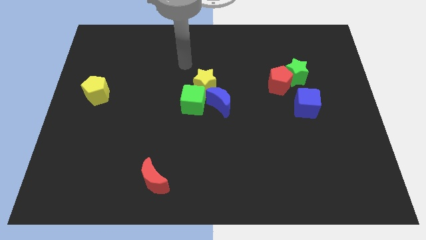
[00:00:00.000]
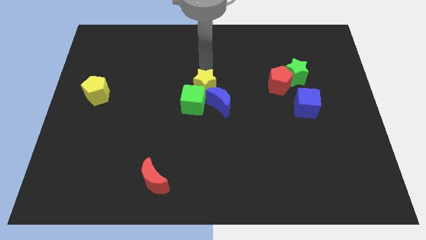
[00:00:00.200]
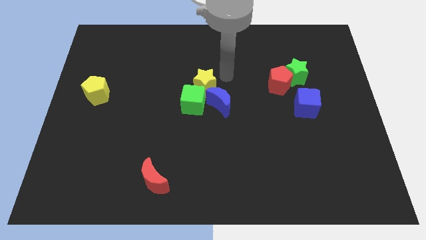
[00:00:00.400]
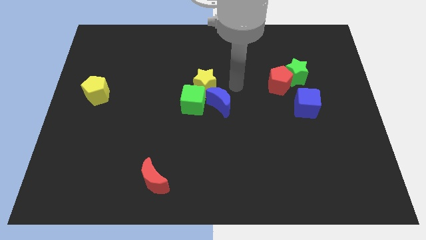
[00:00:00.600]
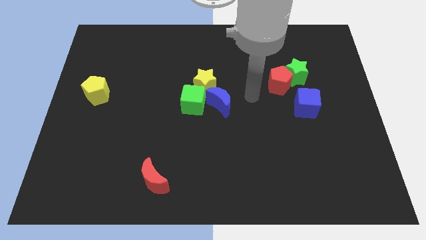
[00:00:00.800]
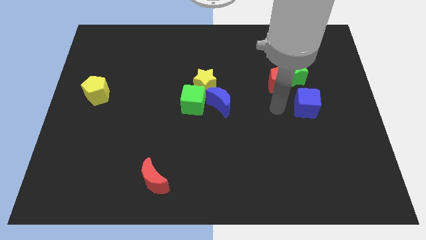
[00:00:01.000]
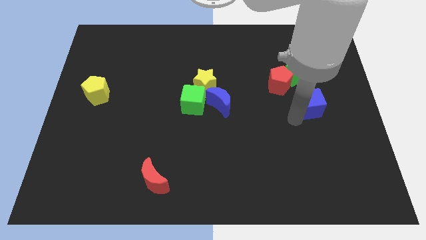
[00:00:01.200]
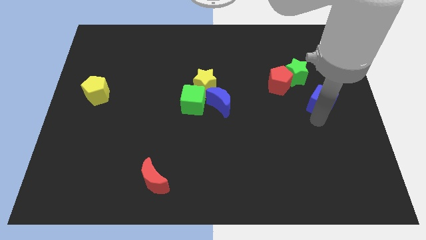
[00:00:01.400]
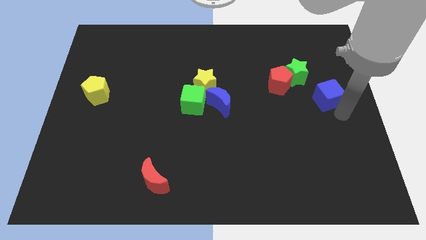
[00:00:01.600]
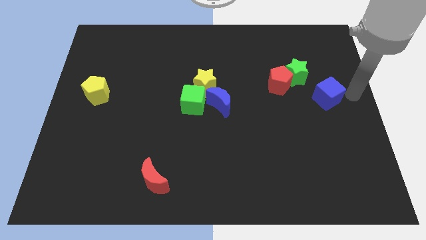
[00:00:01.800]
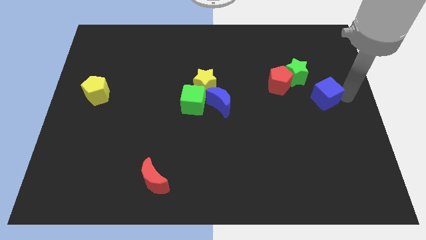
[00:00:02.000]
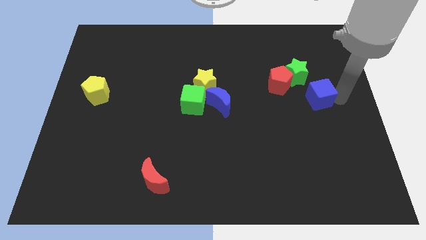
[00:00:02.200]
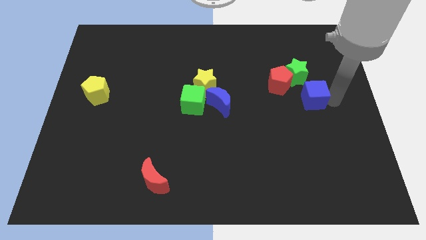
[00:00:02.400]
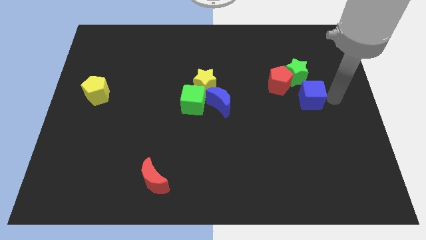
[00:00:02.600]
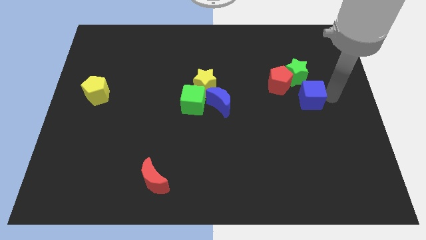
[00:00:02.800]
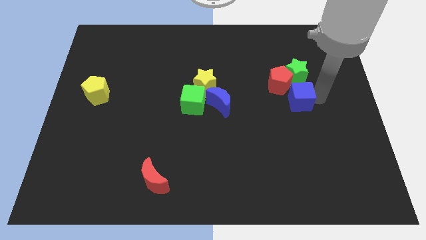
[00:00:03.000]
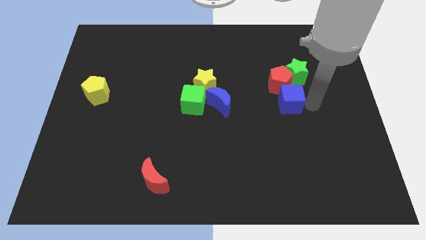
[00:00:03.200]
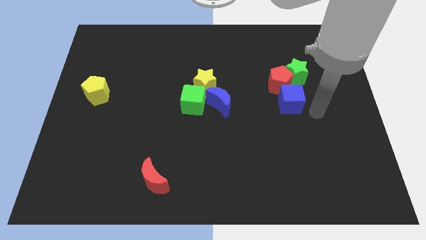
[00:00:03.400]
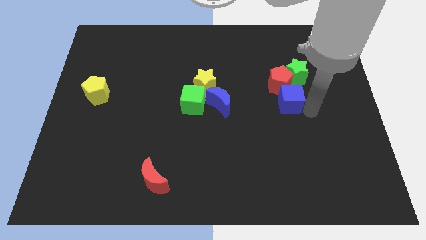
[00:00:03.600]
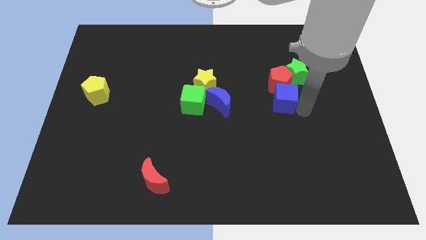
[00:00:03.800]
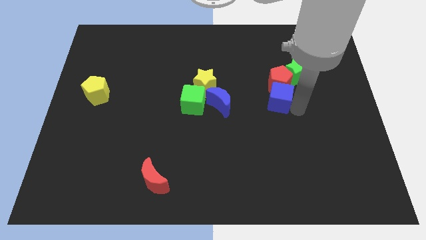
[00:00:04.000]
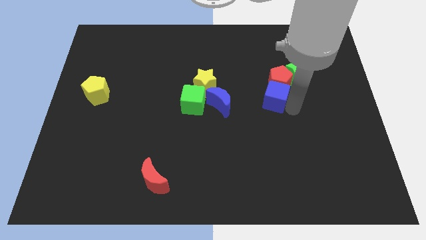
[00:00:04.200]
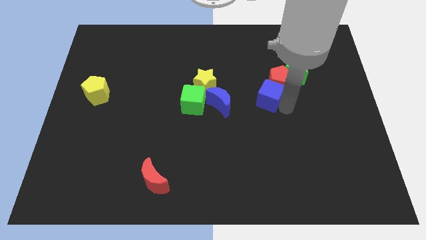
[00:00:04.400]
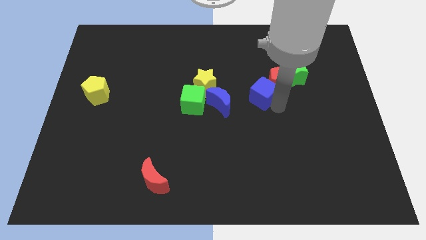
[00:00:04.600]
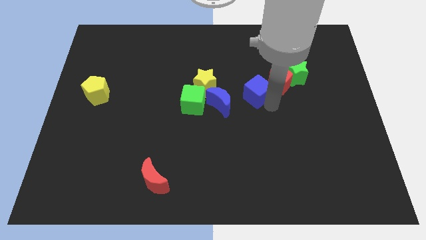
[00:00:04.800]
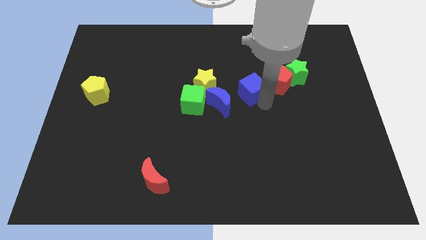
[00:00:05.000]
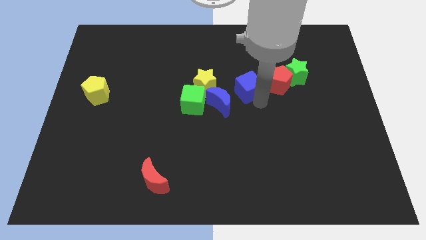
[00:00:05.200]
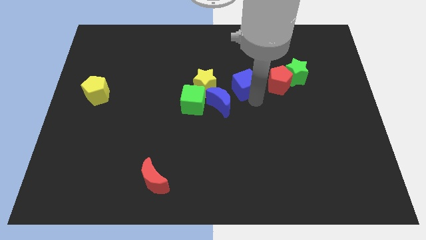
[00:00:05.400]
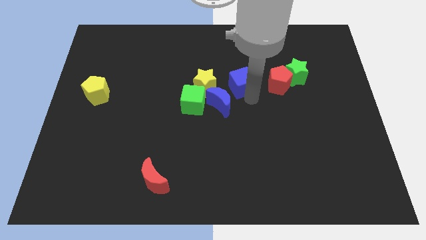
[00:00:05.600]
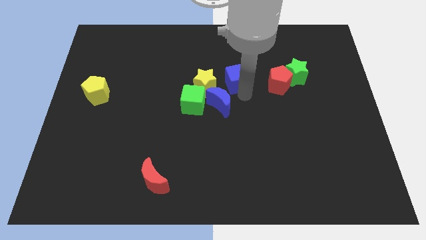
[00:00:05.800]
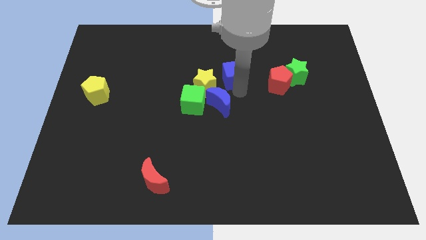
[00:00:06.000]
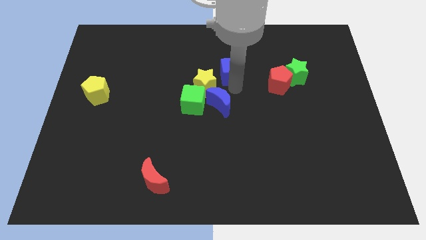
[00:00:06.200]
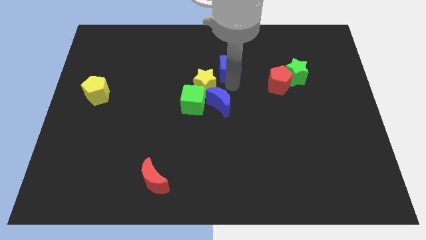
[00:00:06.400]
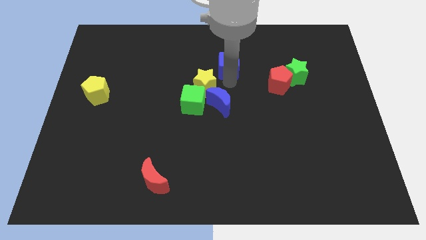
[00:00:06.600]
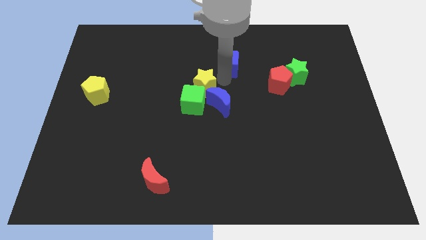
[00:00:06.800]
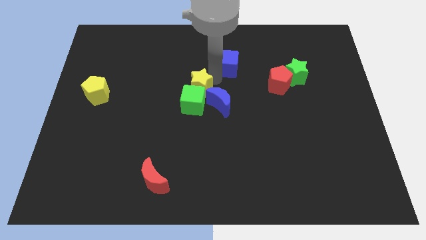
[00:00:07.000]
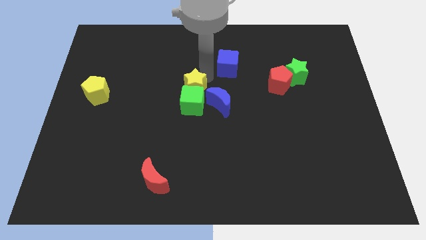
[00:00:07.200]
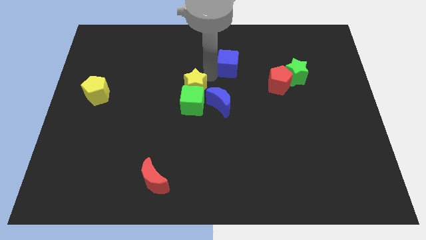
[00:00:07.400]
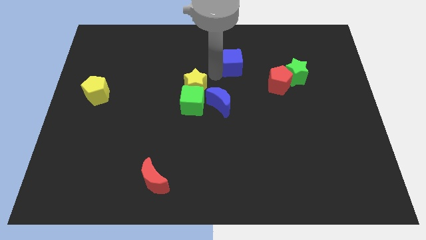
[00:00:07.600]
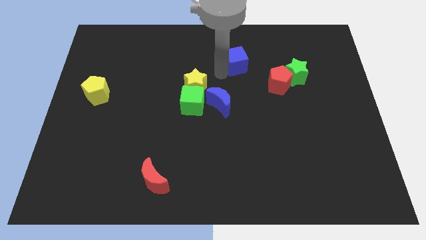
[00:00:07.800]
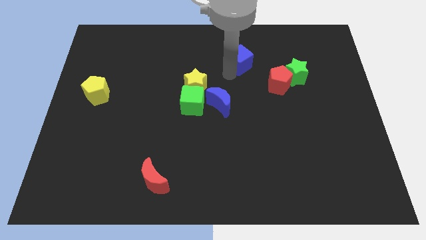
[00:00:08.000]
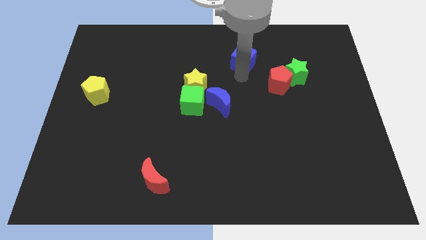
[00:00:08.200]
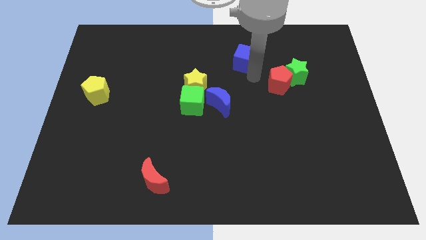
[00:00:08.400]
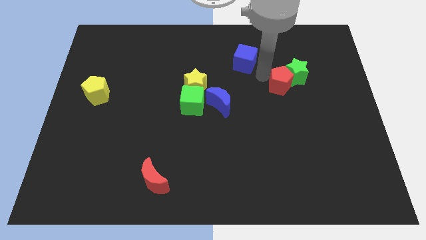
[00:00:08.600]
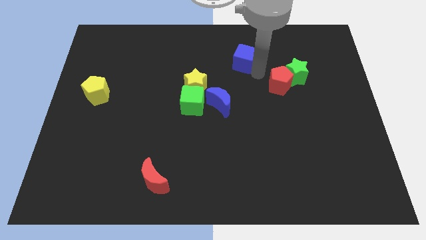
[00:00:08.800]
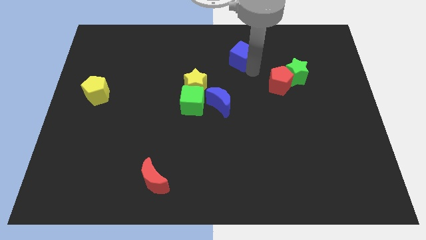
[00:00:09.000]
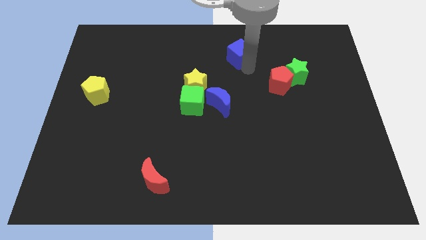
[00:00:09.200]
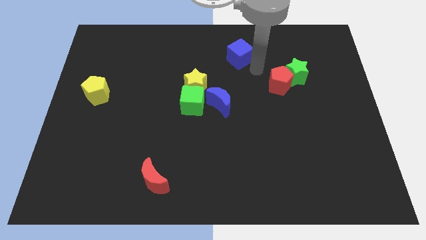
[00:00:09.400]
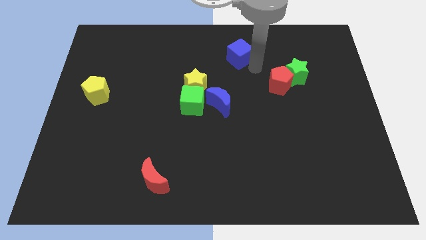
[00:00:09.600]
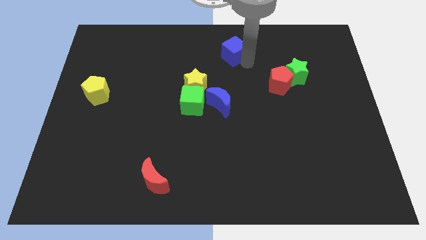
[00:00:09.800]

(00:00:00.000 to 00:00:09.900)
push the blue cube to the top

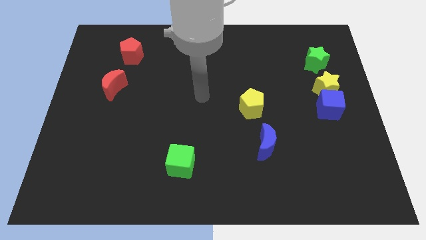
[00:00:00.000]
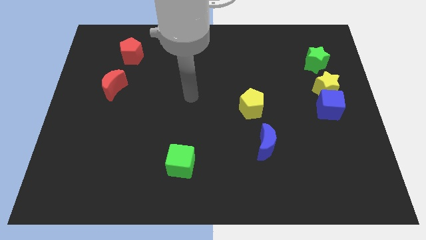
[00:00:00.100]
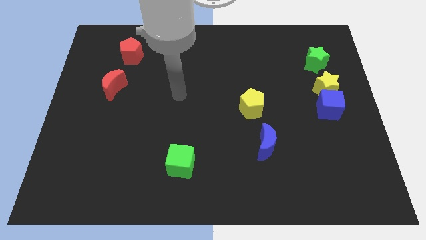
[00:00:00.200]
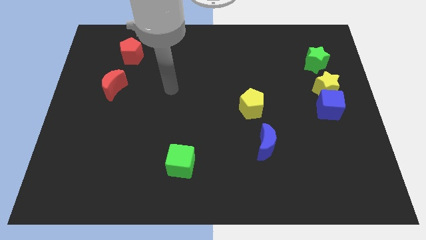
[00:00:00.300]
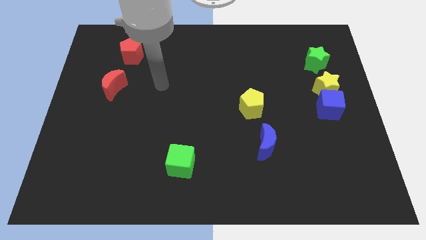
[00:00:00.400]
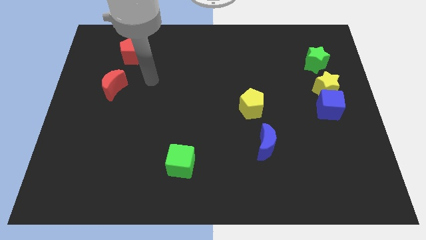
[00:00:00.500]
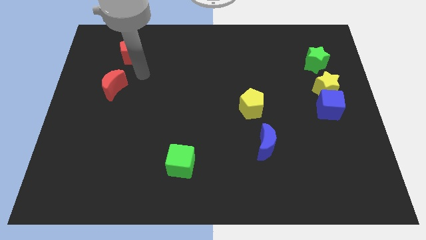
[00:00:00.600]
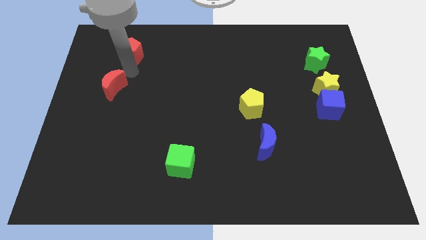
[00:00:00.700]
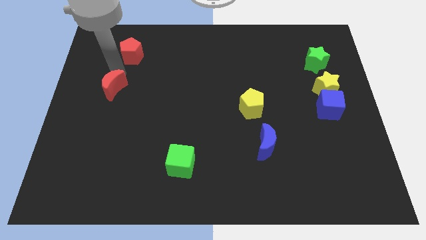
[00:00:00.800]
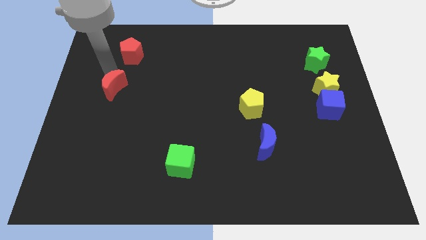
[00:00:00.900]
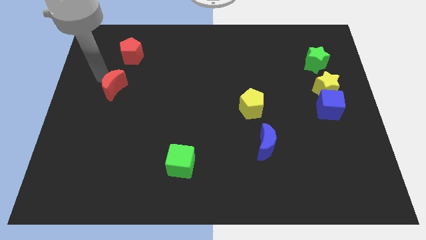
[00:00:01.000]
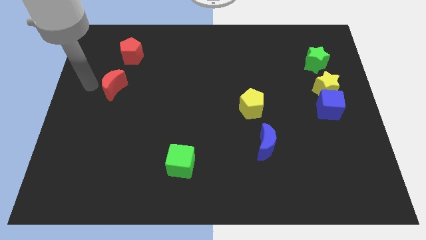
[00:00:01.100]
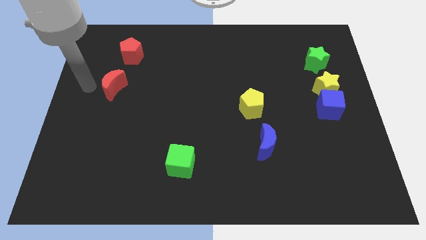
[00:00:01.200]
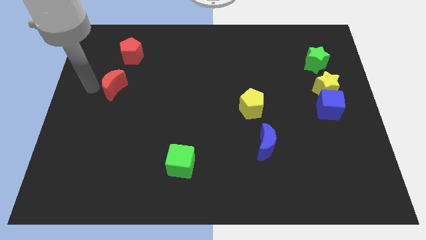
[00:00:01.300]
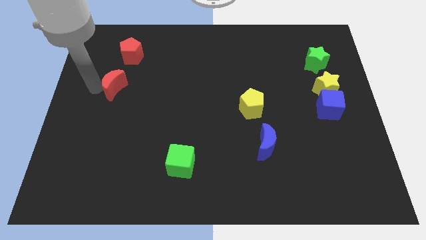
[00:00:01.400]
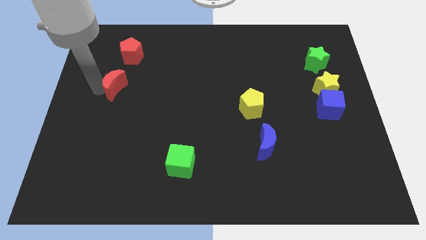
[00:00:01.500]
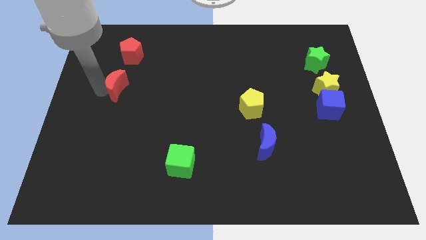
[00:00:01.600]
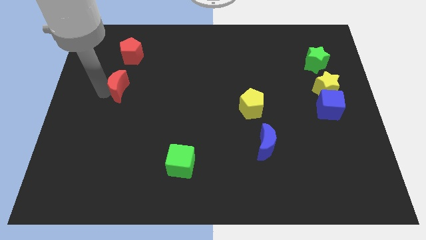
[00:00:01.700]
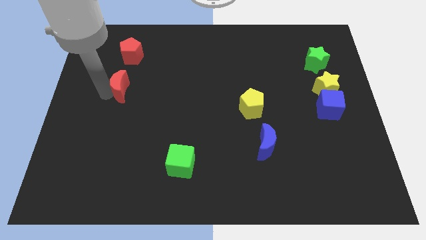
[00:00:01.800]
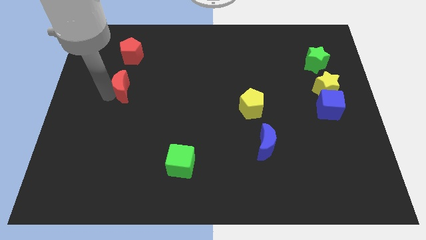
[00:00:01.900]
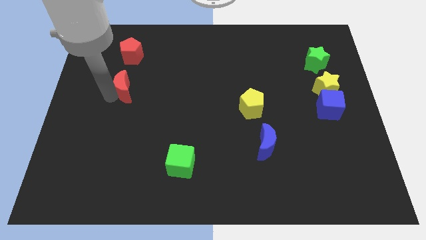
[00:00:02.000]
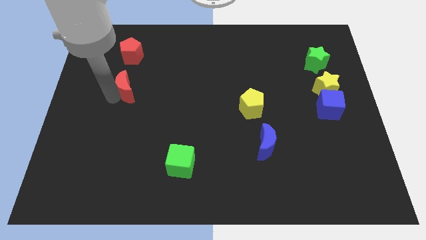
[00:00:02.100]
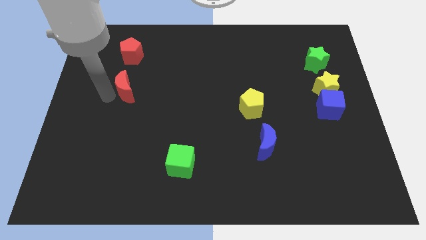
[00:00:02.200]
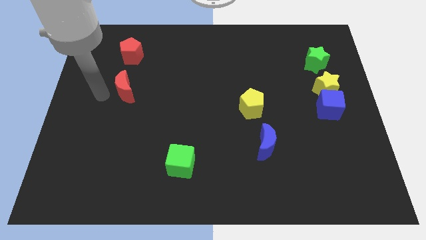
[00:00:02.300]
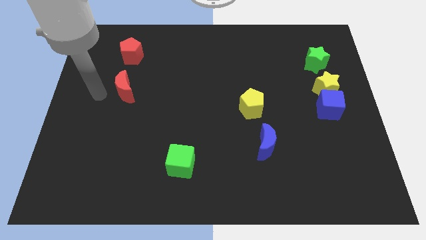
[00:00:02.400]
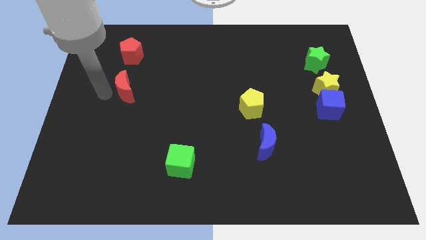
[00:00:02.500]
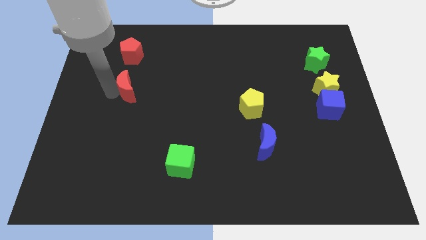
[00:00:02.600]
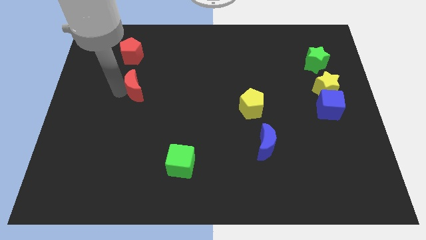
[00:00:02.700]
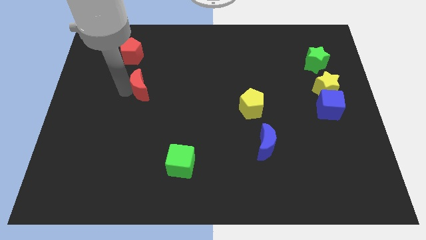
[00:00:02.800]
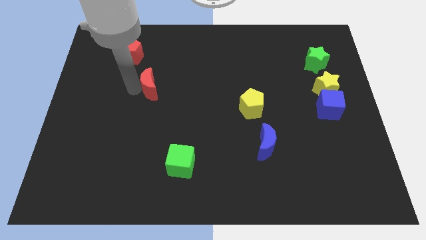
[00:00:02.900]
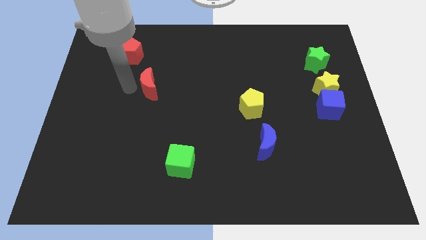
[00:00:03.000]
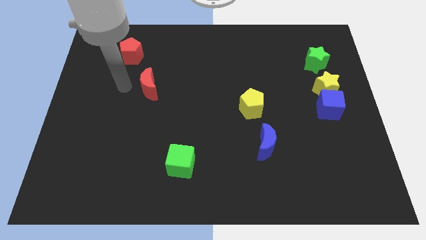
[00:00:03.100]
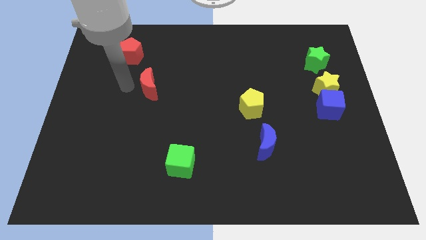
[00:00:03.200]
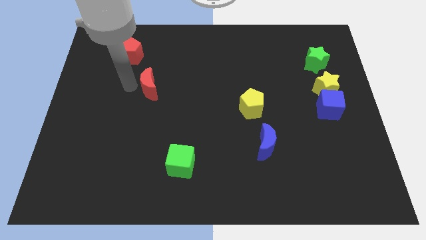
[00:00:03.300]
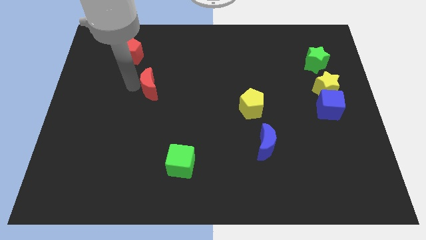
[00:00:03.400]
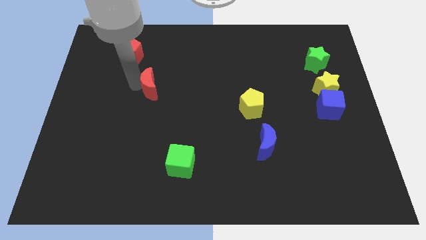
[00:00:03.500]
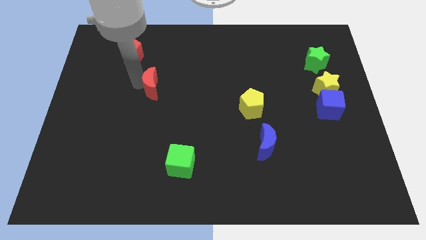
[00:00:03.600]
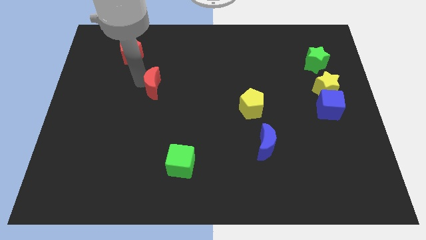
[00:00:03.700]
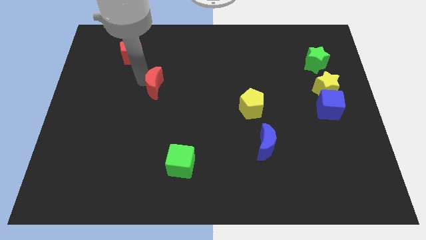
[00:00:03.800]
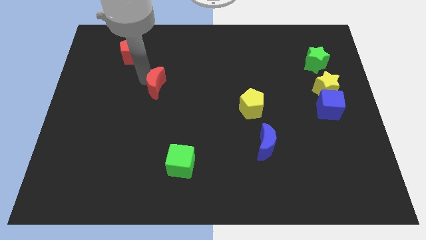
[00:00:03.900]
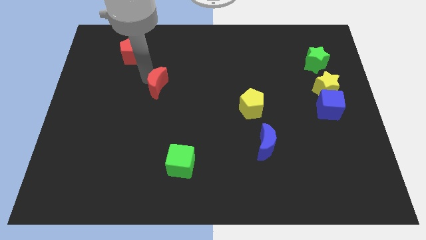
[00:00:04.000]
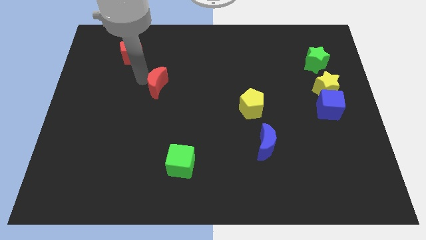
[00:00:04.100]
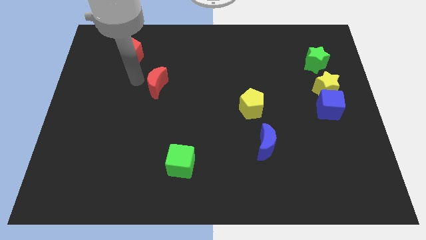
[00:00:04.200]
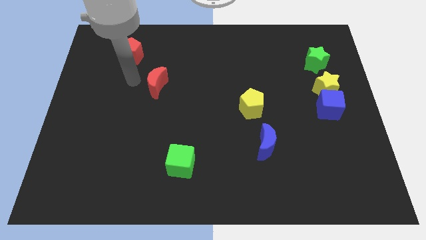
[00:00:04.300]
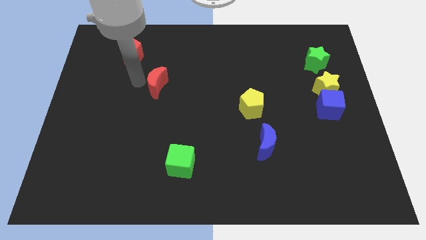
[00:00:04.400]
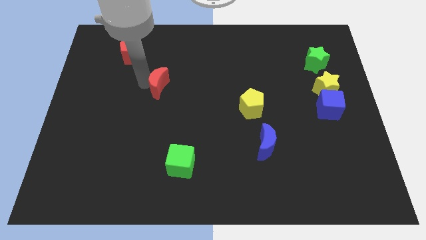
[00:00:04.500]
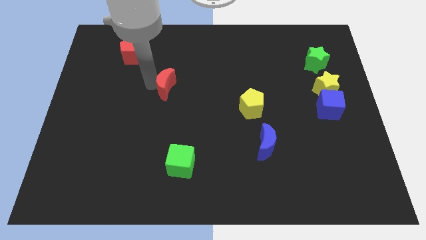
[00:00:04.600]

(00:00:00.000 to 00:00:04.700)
push the red moon to the middle of the board
